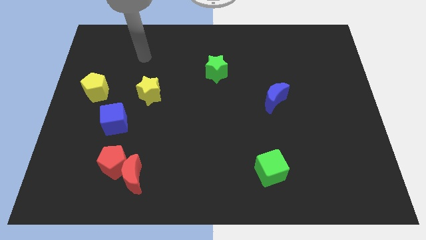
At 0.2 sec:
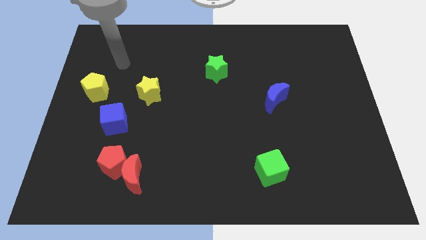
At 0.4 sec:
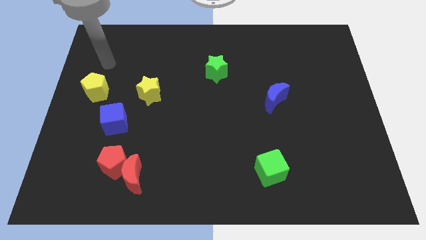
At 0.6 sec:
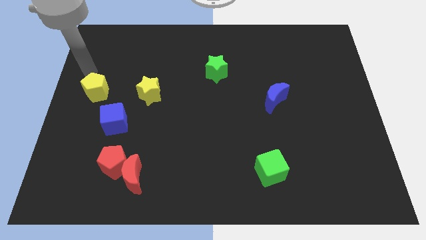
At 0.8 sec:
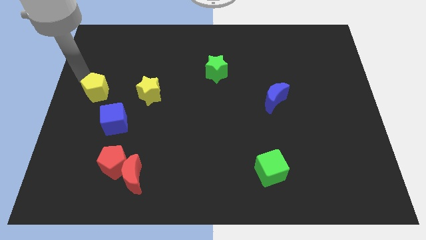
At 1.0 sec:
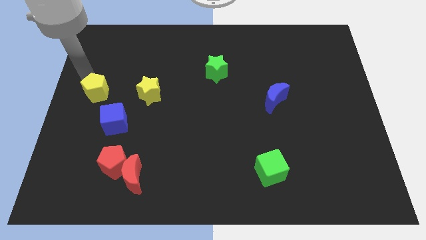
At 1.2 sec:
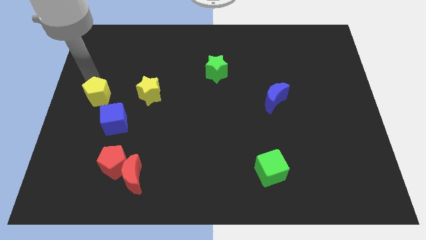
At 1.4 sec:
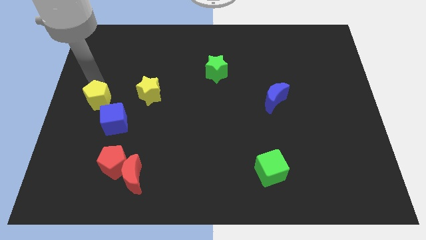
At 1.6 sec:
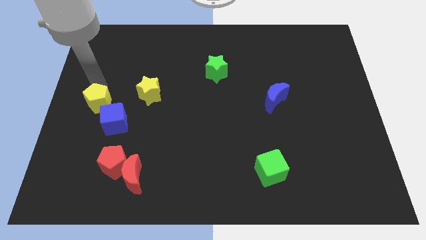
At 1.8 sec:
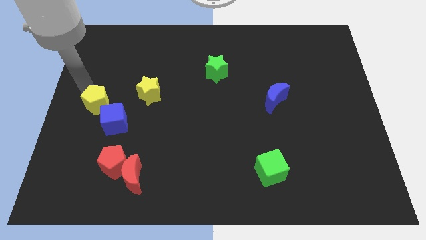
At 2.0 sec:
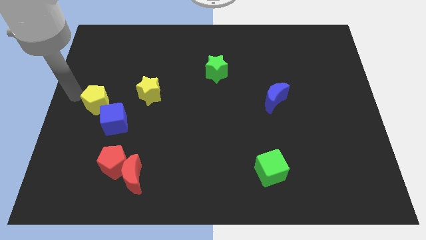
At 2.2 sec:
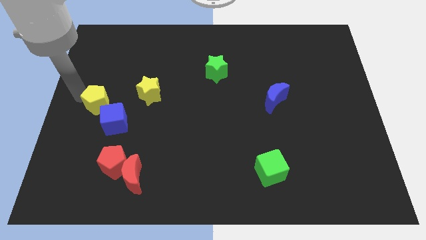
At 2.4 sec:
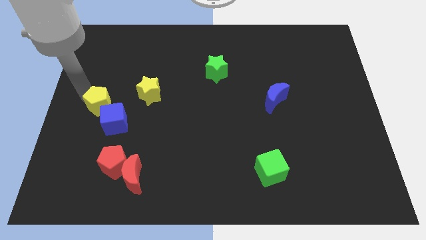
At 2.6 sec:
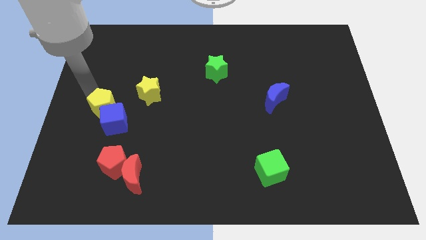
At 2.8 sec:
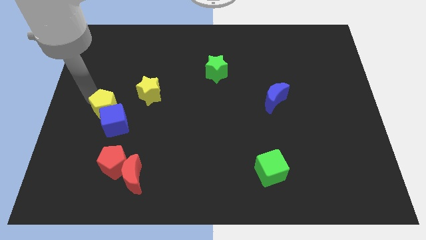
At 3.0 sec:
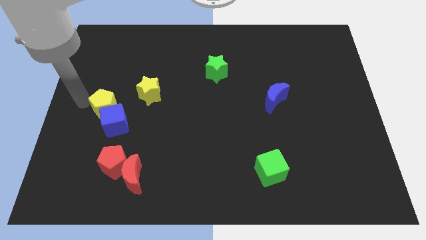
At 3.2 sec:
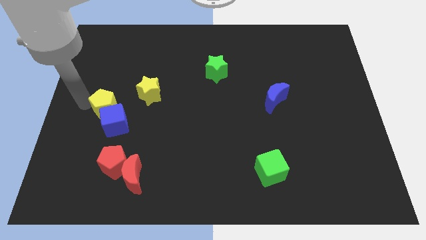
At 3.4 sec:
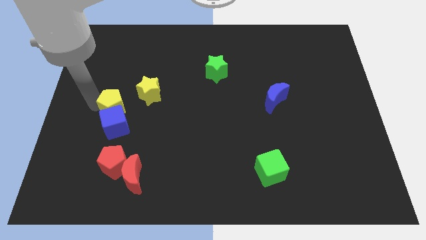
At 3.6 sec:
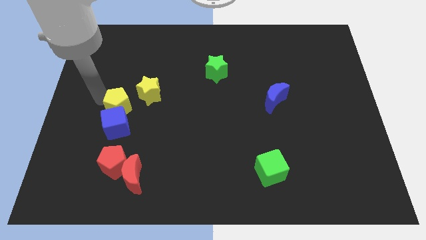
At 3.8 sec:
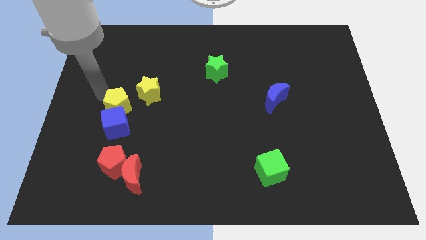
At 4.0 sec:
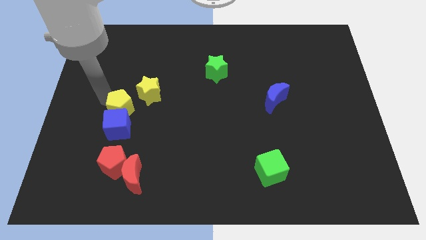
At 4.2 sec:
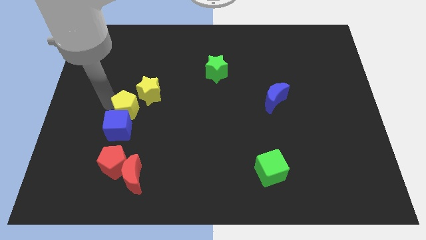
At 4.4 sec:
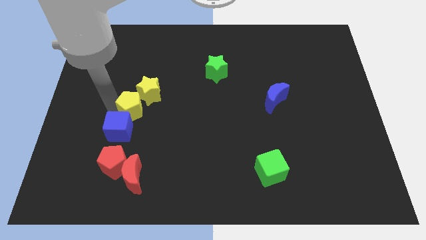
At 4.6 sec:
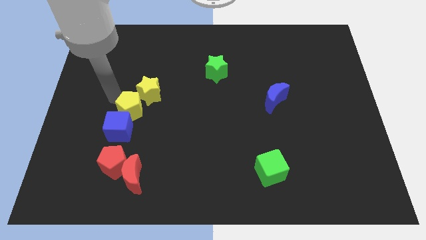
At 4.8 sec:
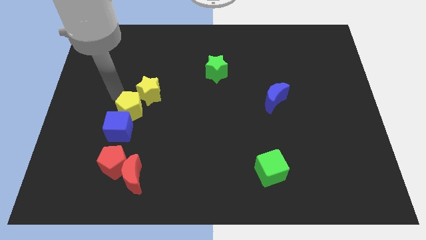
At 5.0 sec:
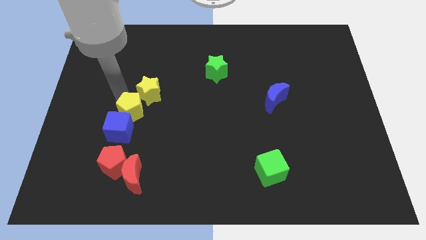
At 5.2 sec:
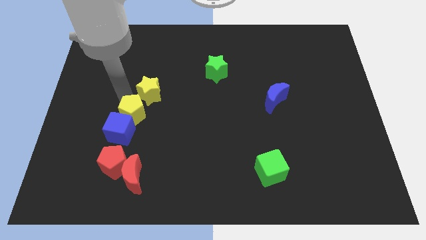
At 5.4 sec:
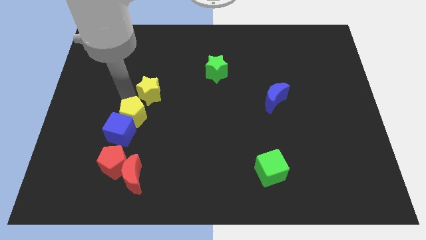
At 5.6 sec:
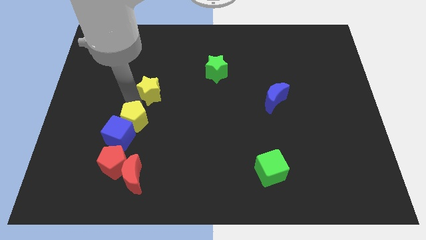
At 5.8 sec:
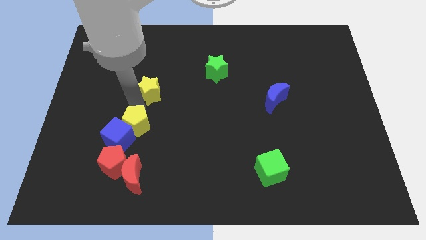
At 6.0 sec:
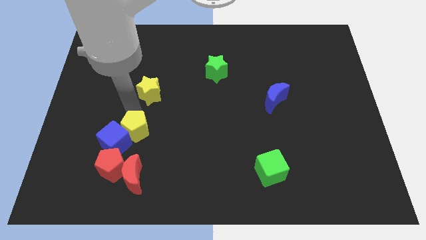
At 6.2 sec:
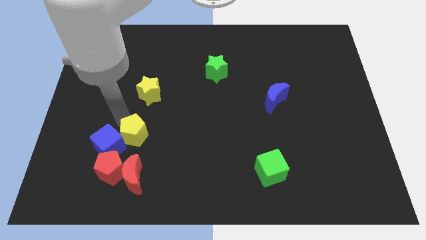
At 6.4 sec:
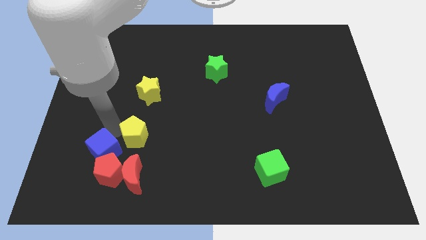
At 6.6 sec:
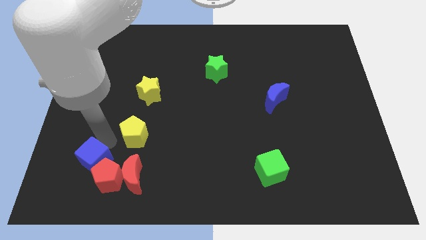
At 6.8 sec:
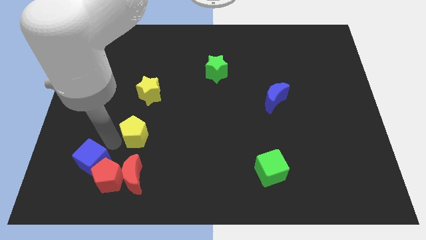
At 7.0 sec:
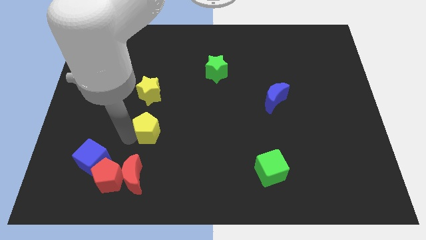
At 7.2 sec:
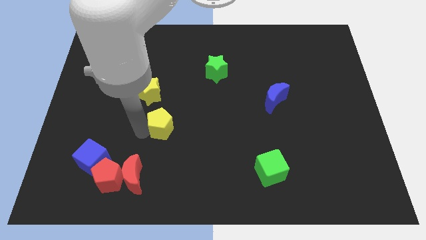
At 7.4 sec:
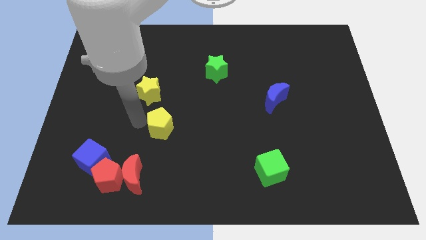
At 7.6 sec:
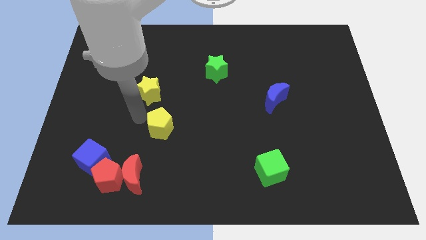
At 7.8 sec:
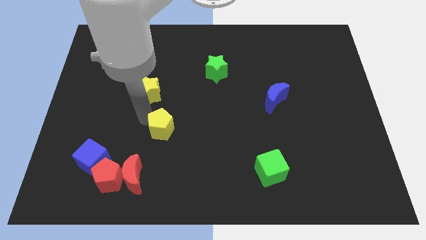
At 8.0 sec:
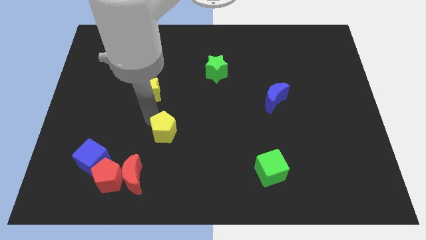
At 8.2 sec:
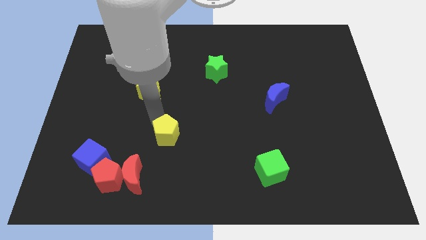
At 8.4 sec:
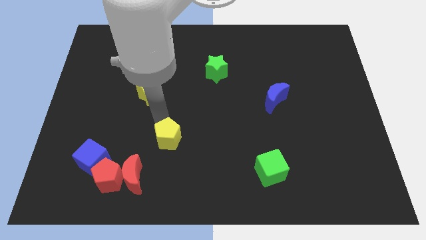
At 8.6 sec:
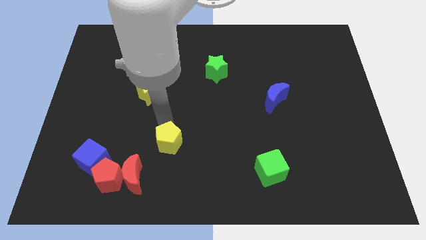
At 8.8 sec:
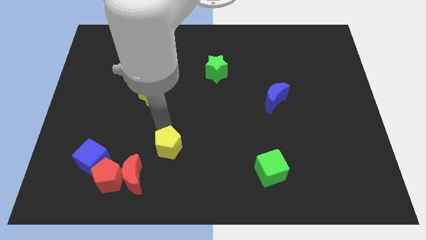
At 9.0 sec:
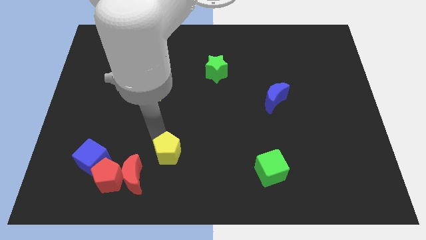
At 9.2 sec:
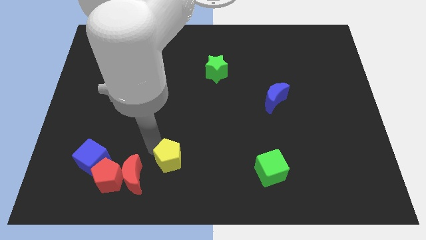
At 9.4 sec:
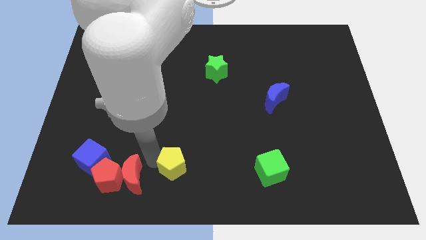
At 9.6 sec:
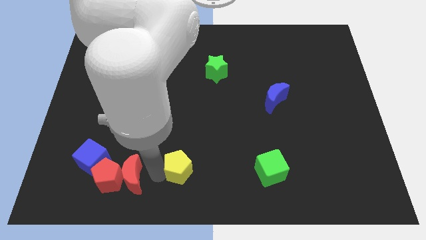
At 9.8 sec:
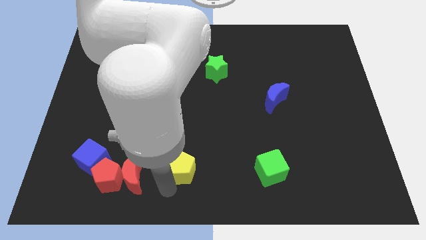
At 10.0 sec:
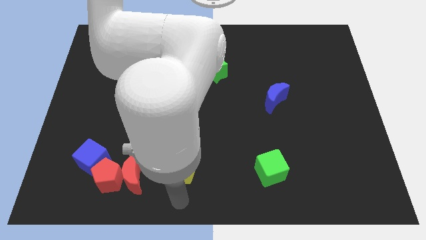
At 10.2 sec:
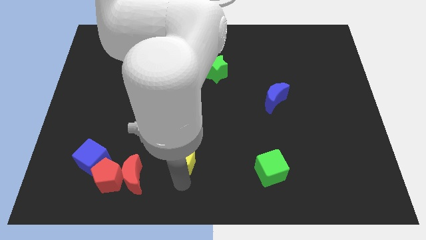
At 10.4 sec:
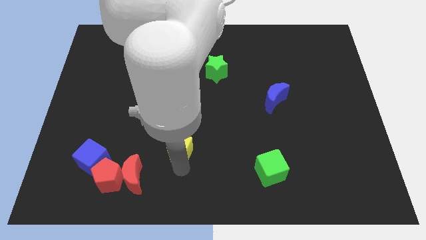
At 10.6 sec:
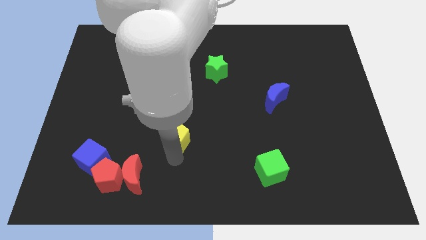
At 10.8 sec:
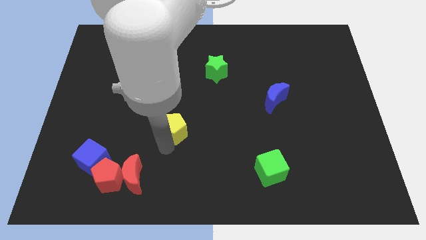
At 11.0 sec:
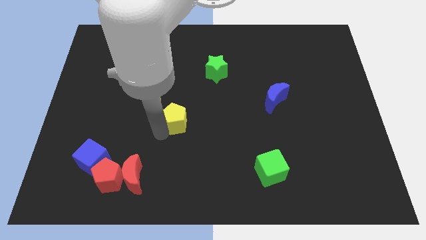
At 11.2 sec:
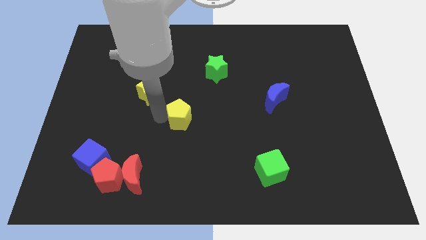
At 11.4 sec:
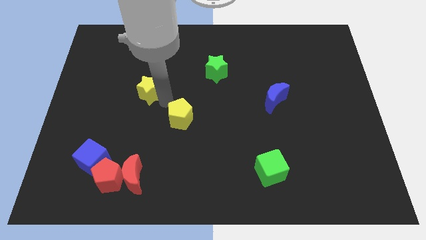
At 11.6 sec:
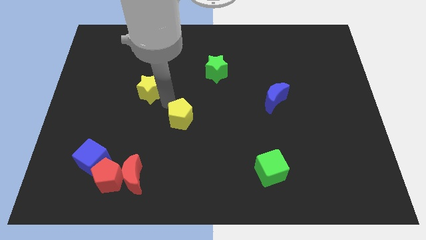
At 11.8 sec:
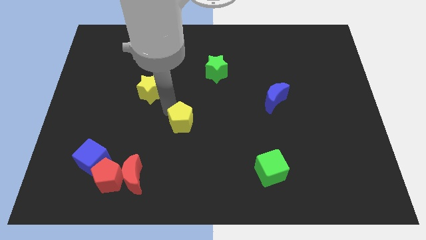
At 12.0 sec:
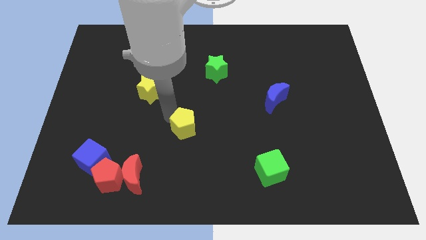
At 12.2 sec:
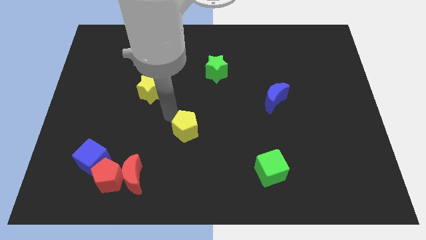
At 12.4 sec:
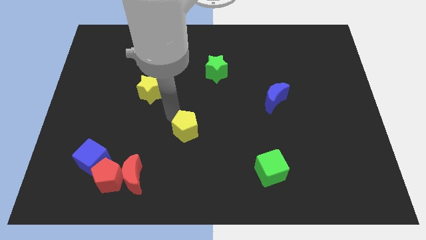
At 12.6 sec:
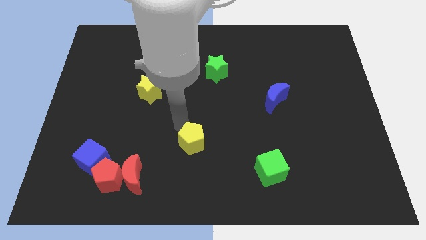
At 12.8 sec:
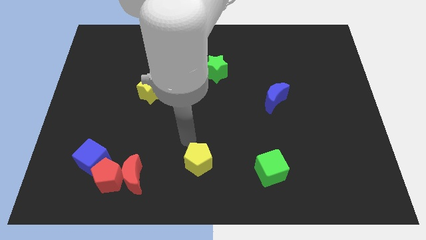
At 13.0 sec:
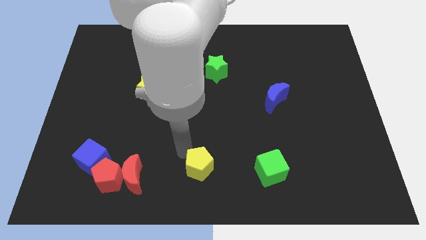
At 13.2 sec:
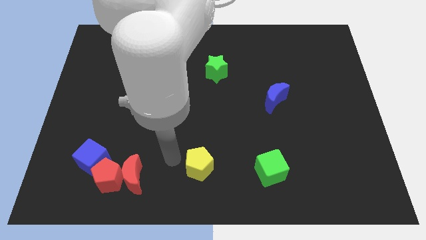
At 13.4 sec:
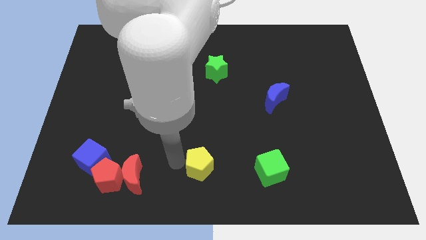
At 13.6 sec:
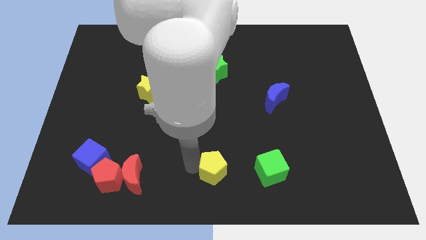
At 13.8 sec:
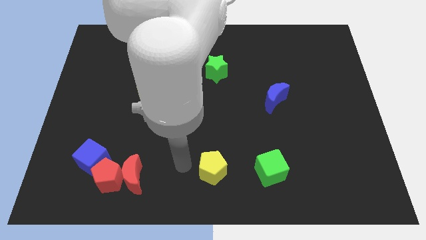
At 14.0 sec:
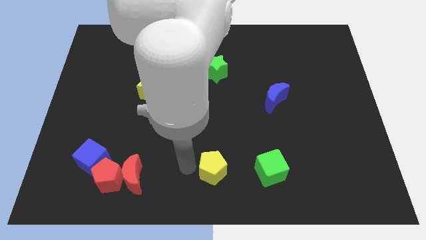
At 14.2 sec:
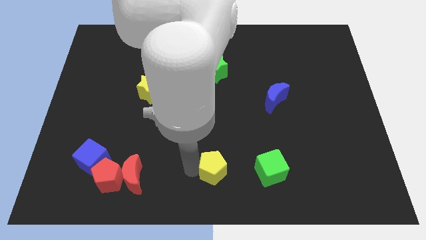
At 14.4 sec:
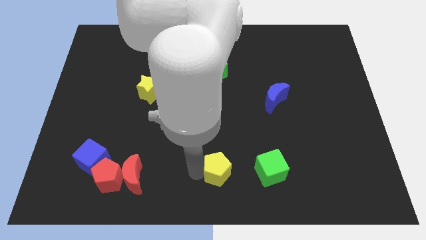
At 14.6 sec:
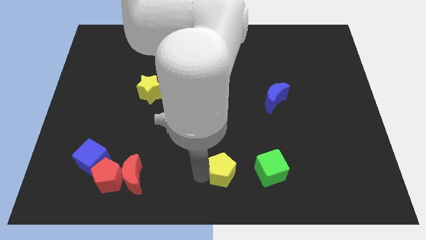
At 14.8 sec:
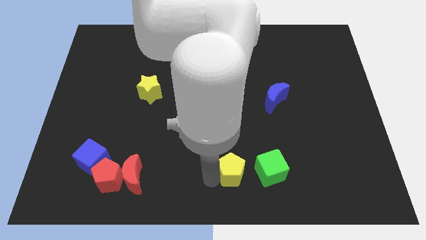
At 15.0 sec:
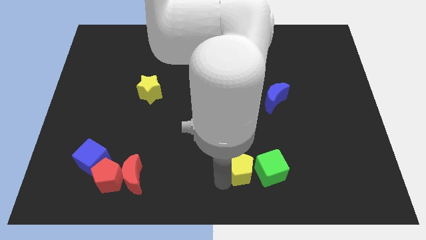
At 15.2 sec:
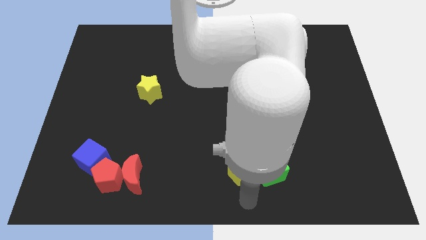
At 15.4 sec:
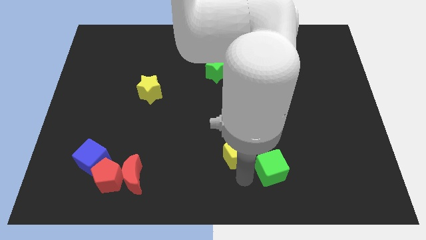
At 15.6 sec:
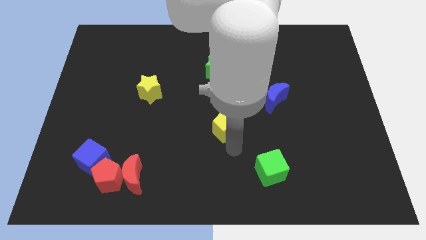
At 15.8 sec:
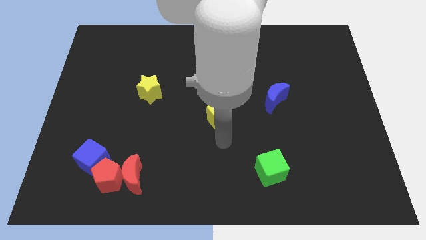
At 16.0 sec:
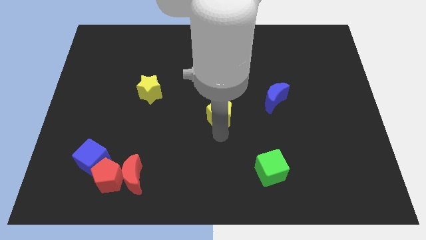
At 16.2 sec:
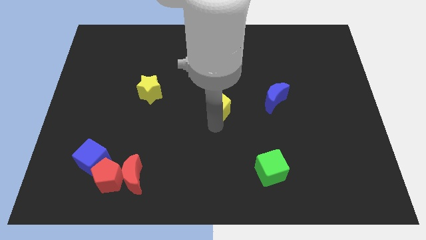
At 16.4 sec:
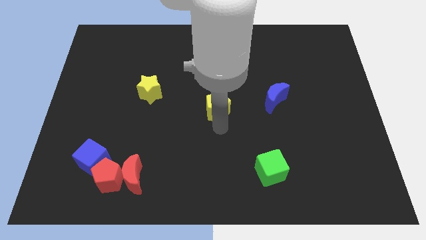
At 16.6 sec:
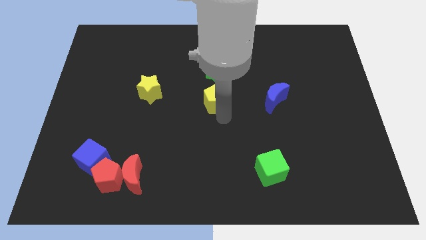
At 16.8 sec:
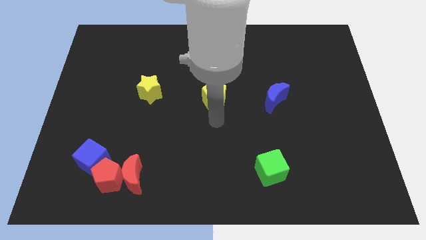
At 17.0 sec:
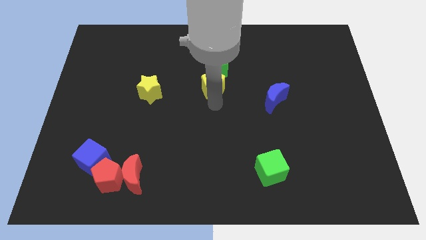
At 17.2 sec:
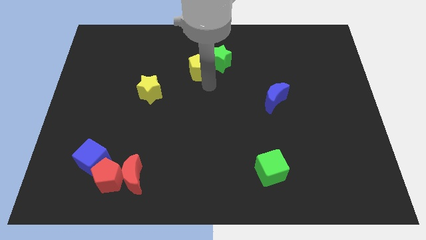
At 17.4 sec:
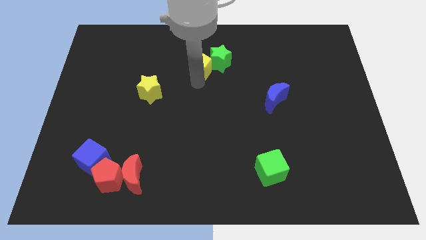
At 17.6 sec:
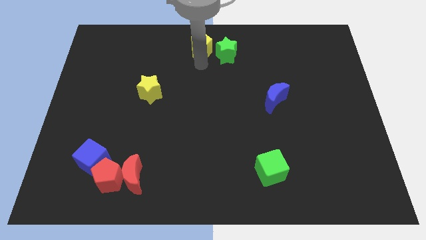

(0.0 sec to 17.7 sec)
move the yellow pentagon to the top
